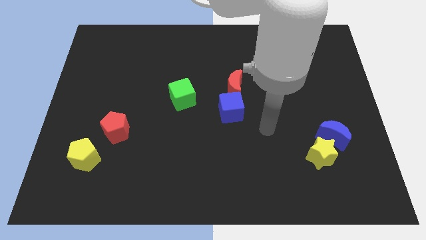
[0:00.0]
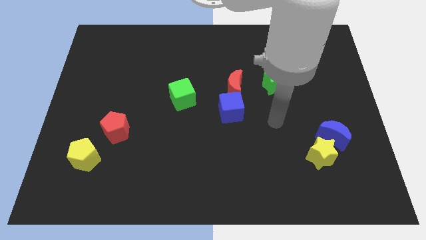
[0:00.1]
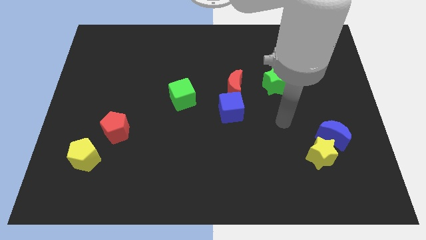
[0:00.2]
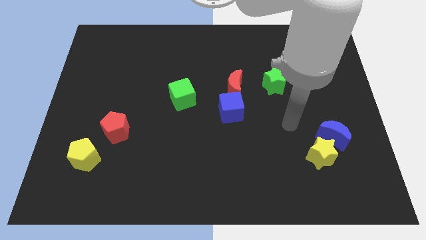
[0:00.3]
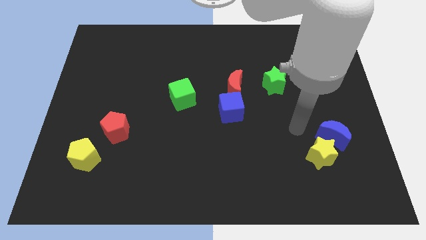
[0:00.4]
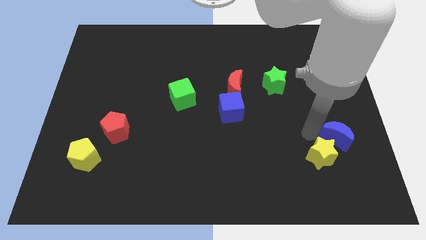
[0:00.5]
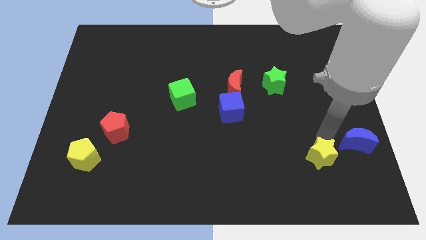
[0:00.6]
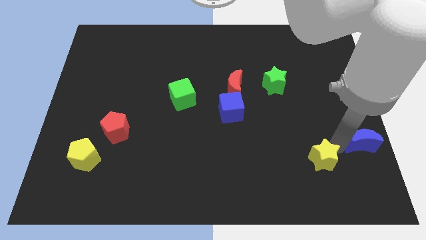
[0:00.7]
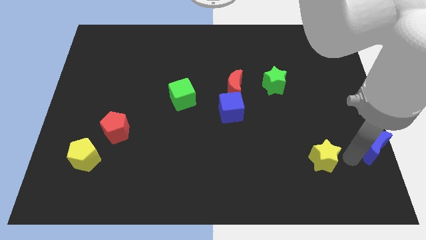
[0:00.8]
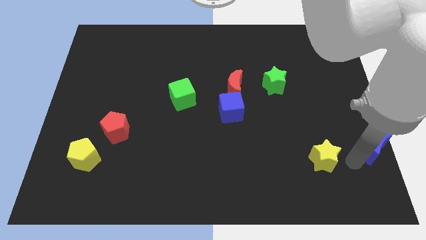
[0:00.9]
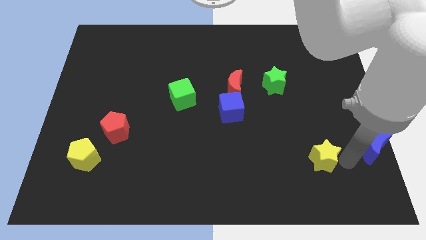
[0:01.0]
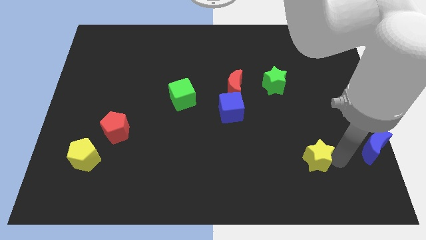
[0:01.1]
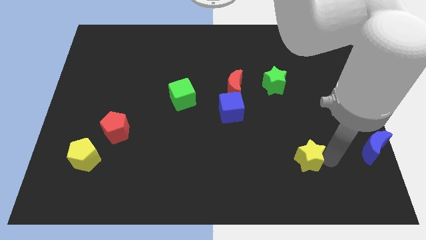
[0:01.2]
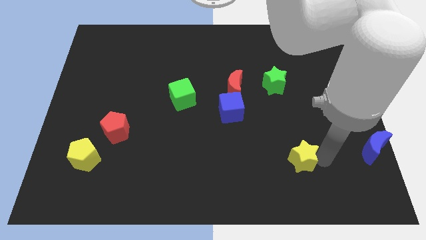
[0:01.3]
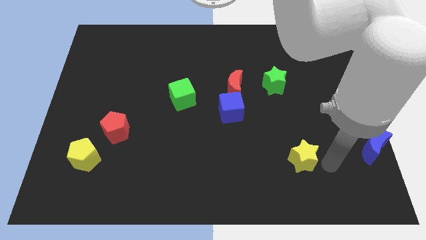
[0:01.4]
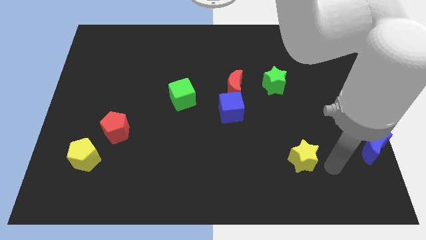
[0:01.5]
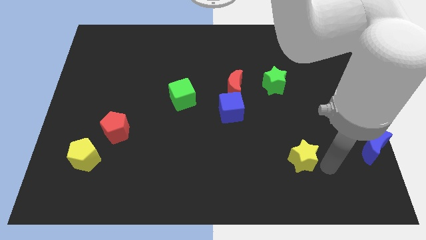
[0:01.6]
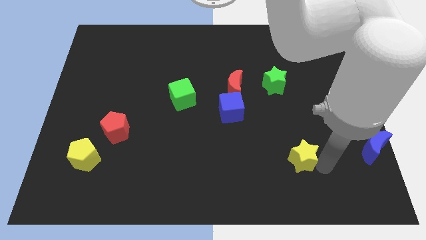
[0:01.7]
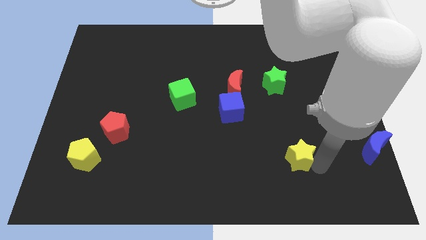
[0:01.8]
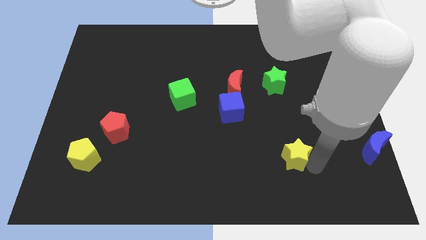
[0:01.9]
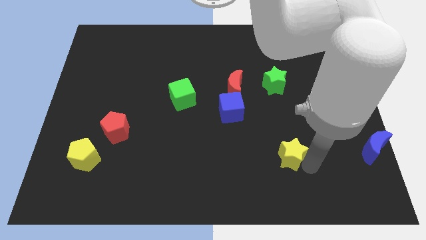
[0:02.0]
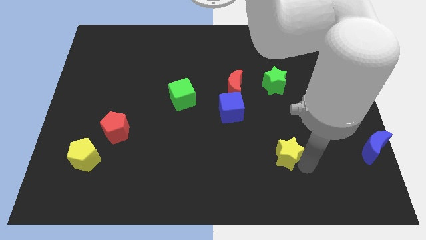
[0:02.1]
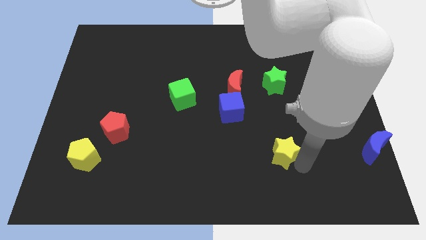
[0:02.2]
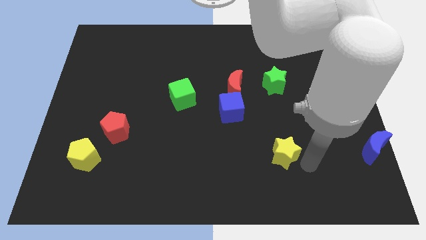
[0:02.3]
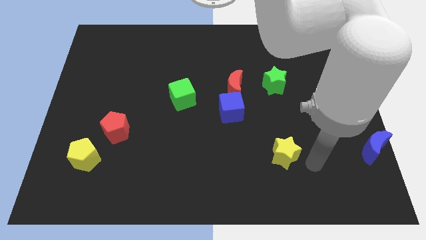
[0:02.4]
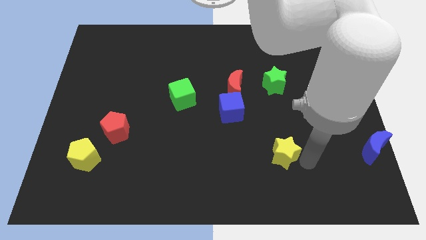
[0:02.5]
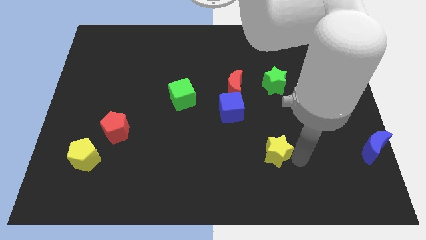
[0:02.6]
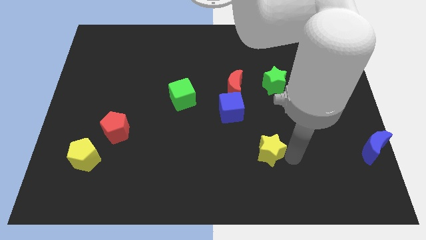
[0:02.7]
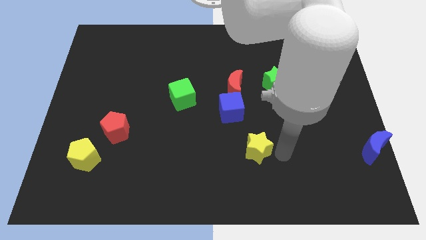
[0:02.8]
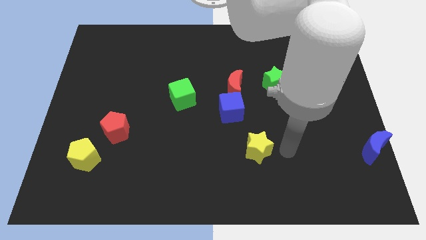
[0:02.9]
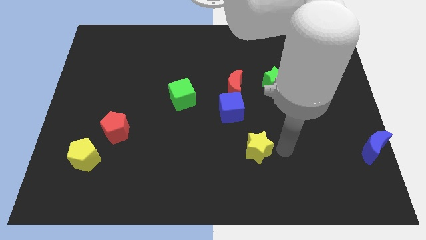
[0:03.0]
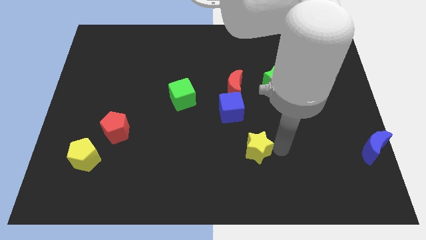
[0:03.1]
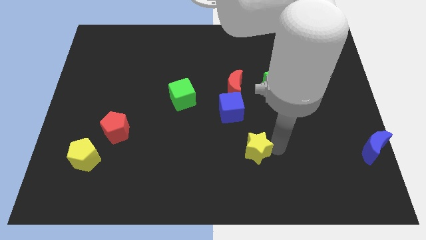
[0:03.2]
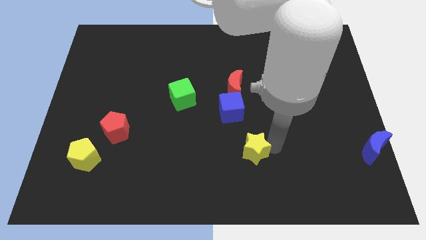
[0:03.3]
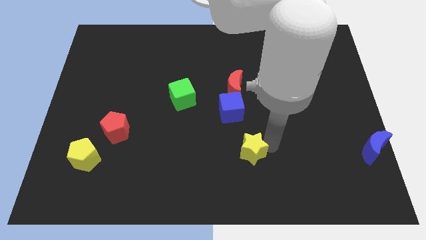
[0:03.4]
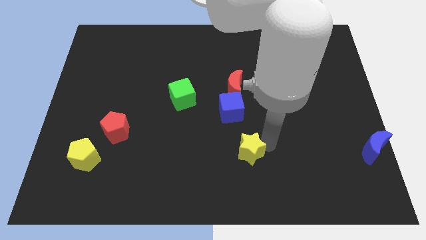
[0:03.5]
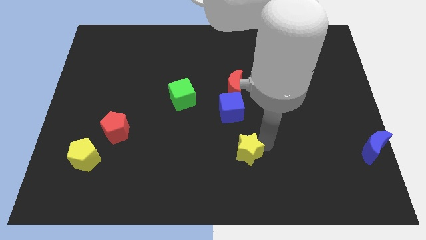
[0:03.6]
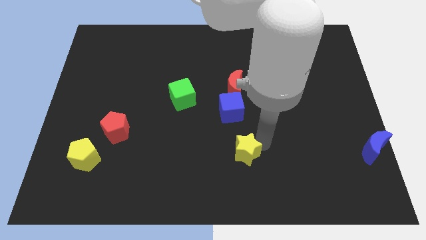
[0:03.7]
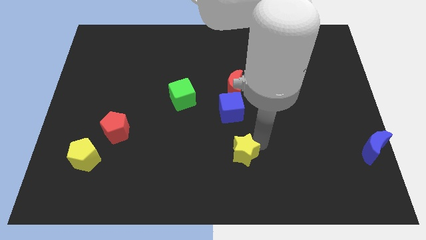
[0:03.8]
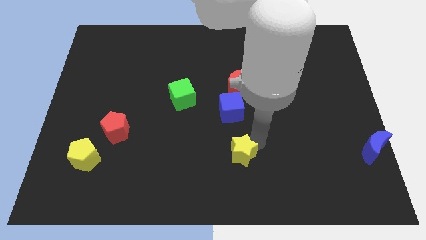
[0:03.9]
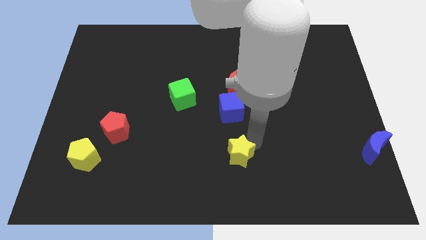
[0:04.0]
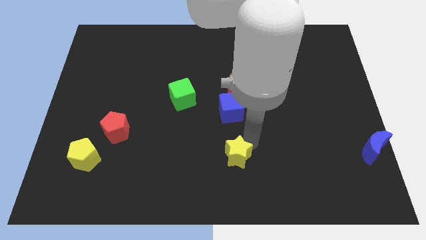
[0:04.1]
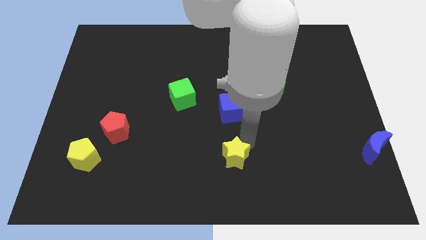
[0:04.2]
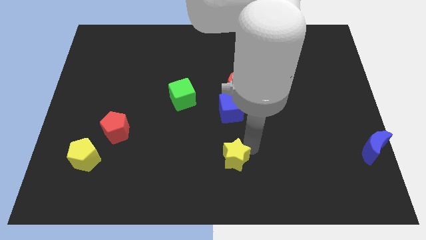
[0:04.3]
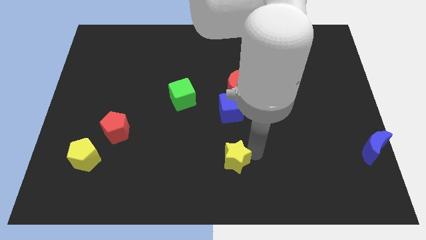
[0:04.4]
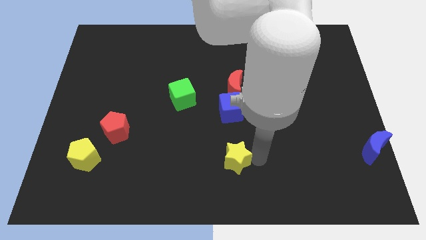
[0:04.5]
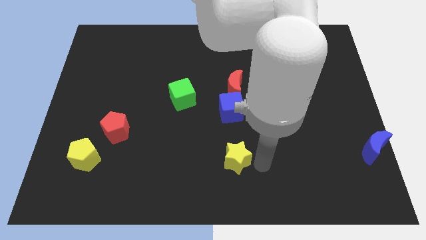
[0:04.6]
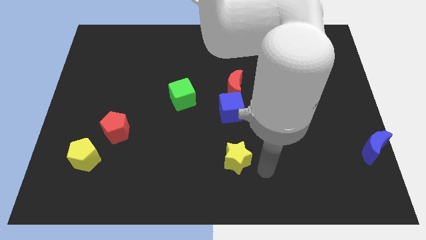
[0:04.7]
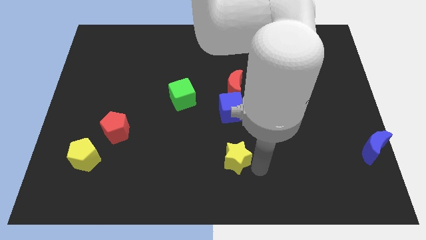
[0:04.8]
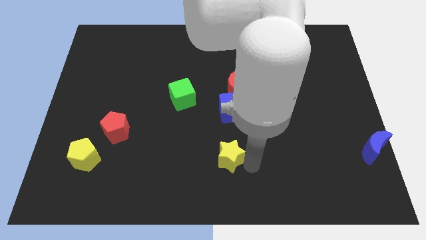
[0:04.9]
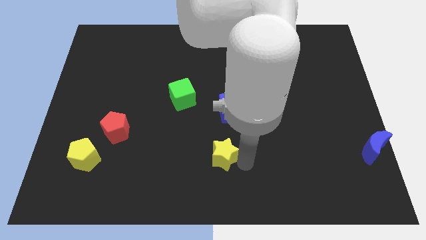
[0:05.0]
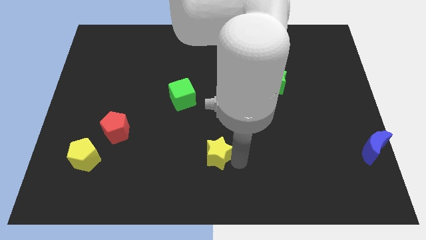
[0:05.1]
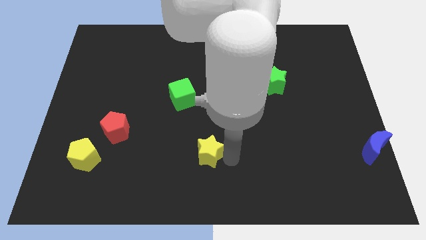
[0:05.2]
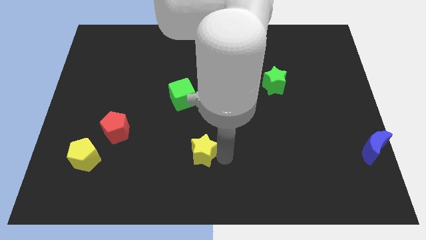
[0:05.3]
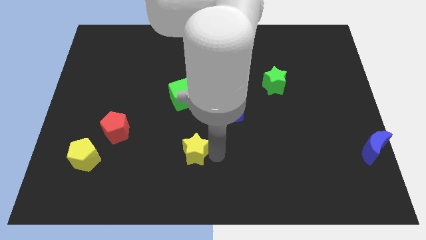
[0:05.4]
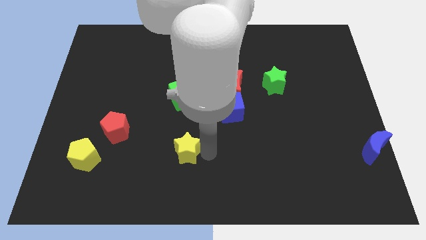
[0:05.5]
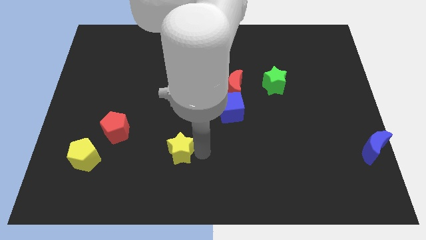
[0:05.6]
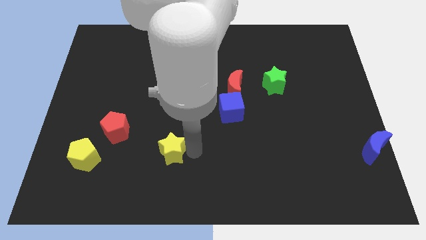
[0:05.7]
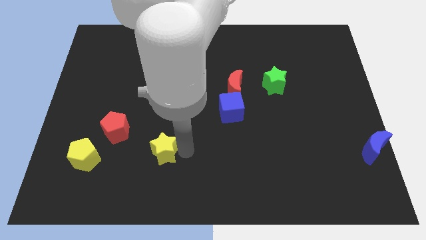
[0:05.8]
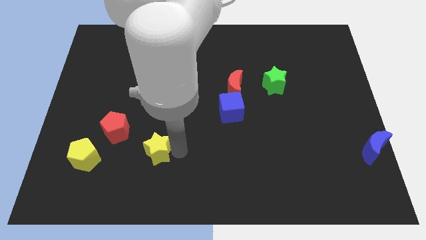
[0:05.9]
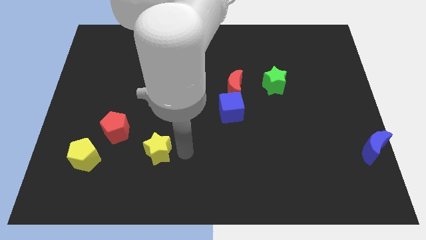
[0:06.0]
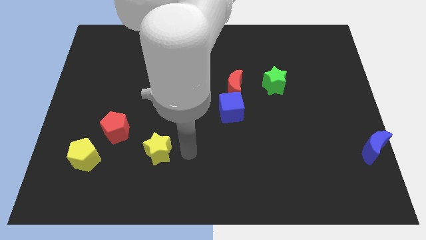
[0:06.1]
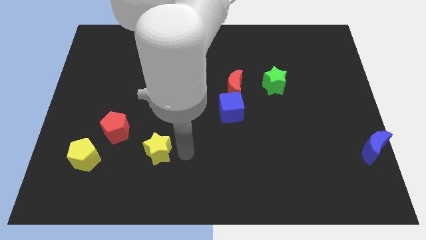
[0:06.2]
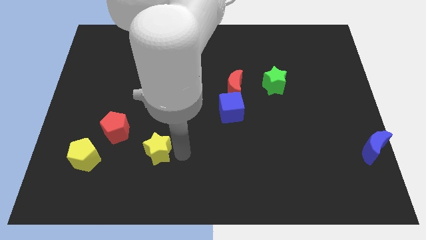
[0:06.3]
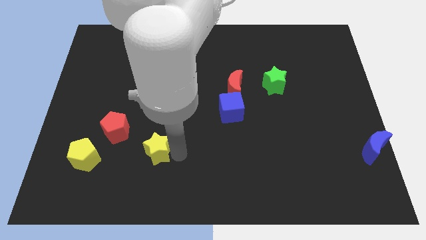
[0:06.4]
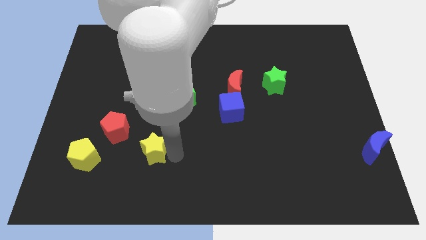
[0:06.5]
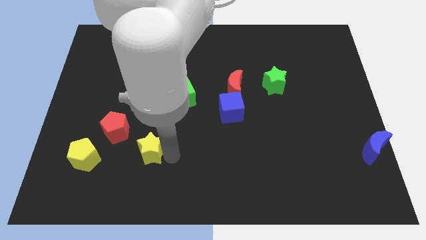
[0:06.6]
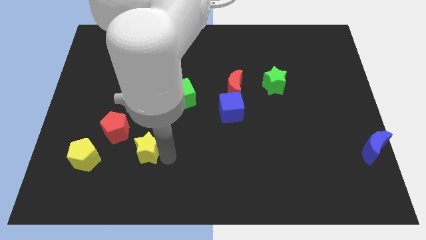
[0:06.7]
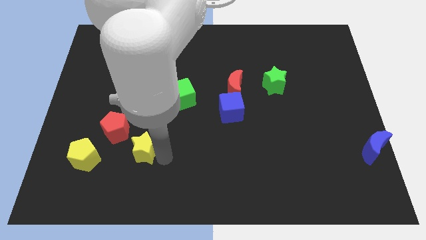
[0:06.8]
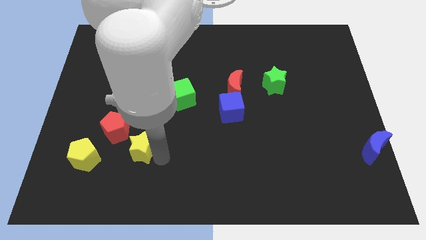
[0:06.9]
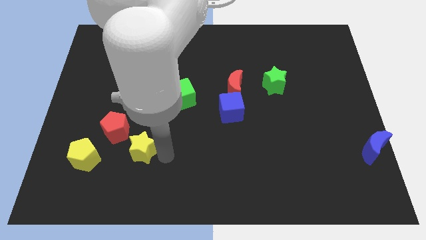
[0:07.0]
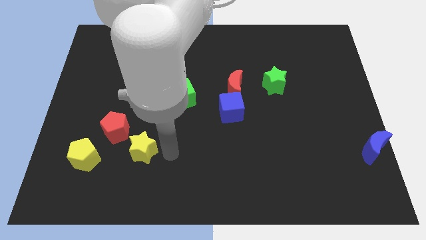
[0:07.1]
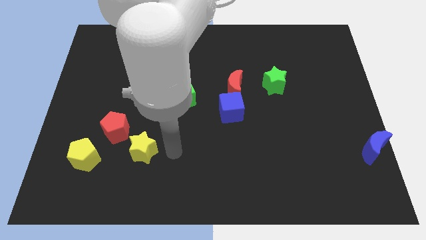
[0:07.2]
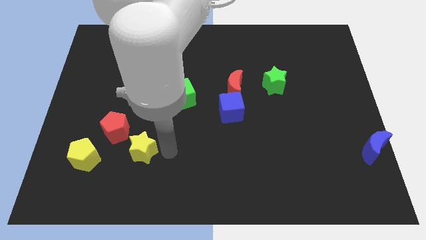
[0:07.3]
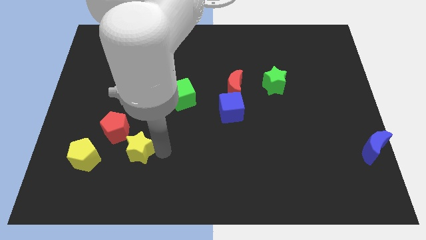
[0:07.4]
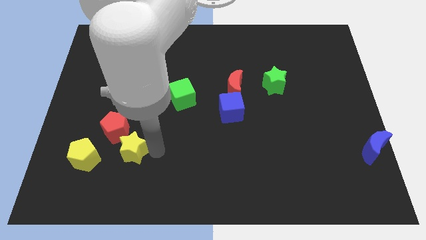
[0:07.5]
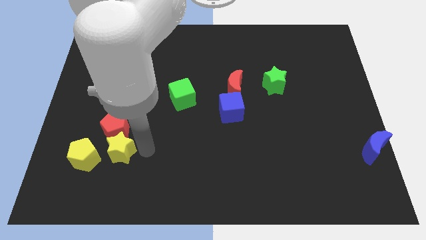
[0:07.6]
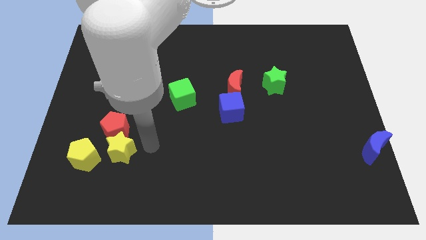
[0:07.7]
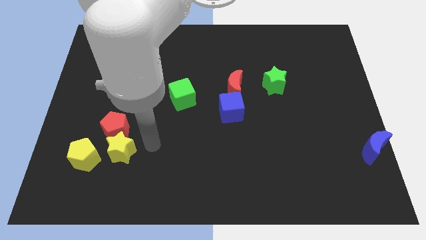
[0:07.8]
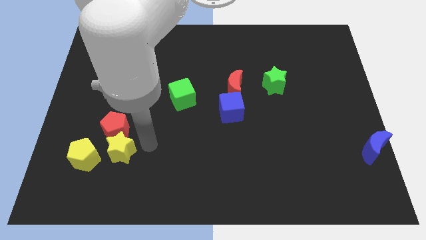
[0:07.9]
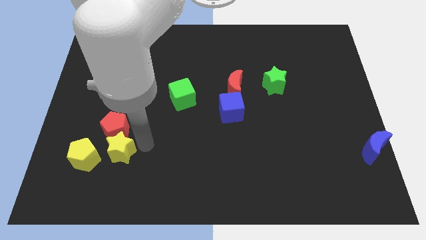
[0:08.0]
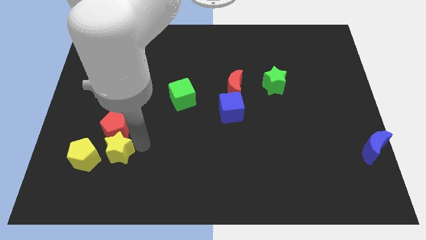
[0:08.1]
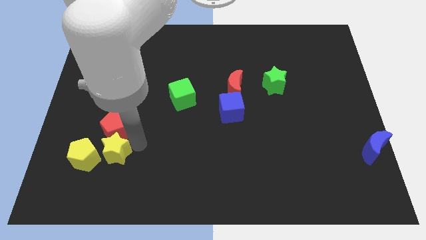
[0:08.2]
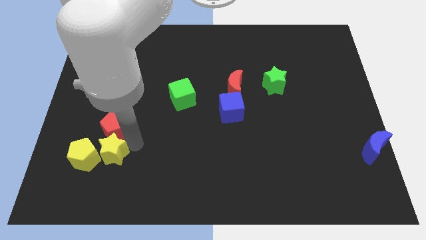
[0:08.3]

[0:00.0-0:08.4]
push the yellow star close to the yellow pentagon
